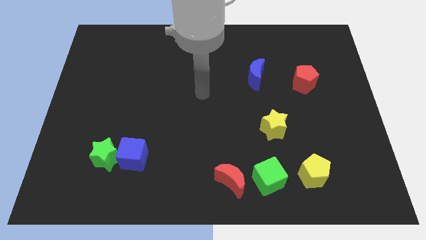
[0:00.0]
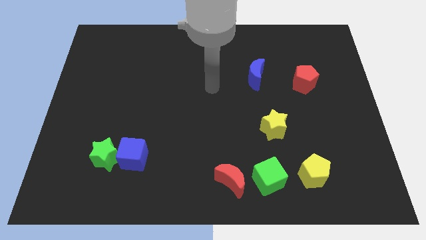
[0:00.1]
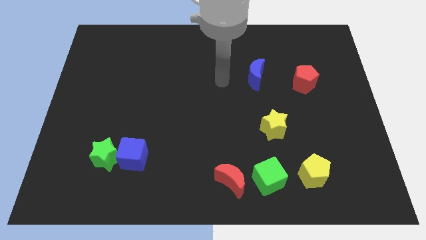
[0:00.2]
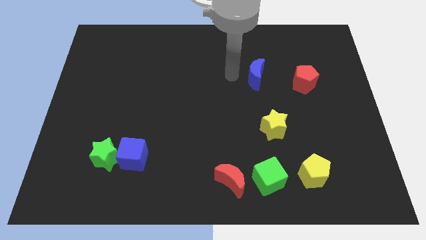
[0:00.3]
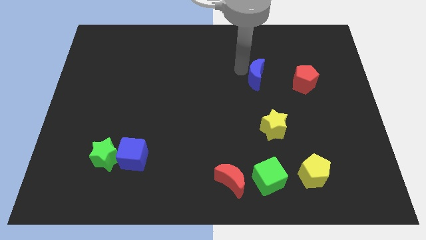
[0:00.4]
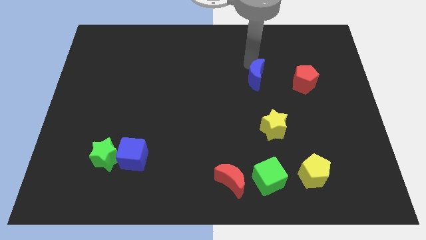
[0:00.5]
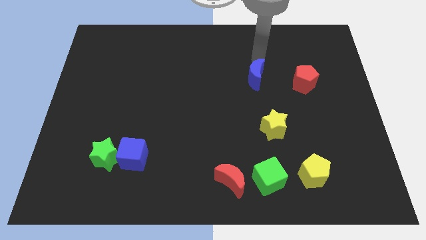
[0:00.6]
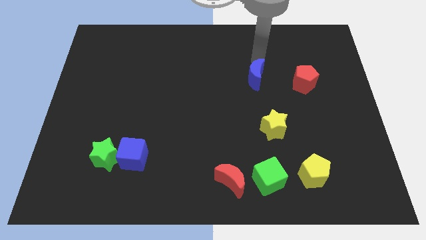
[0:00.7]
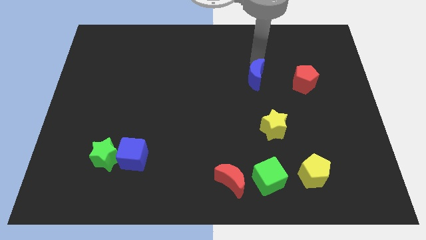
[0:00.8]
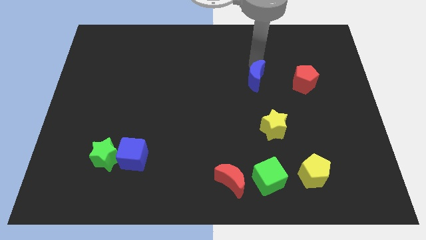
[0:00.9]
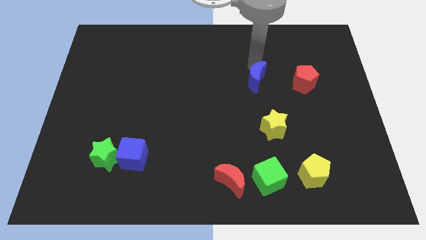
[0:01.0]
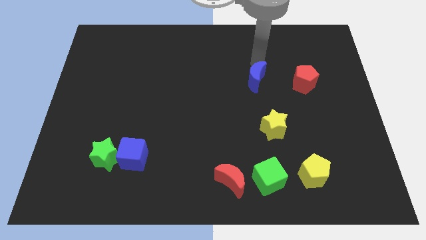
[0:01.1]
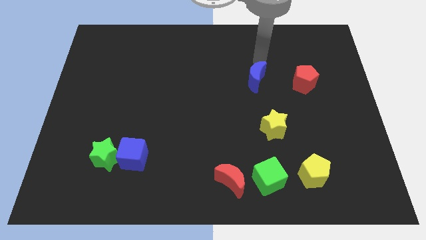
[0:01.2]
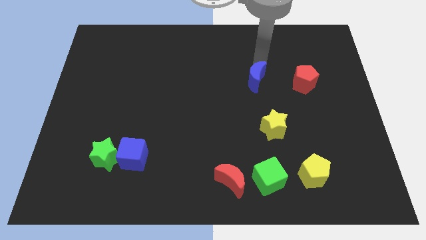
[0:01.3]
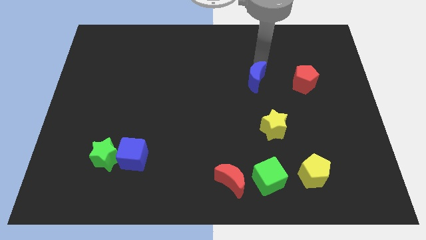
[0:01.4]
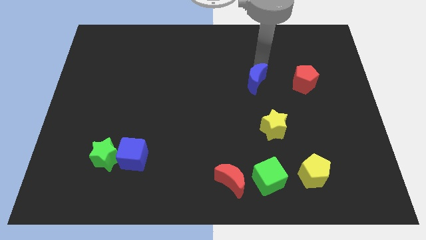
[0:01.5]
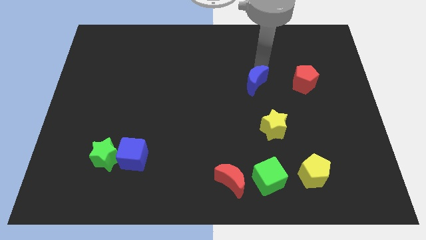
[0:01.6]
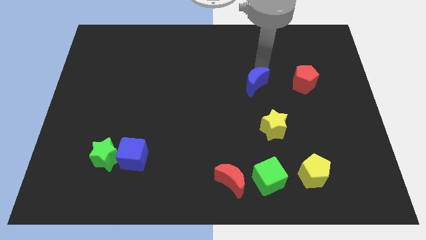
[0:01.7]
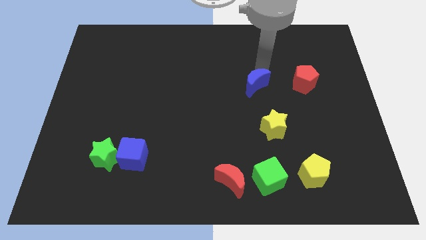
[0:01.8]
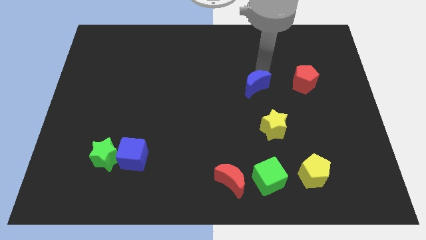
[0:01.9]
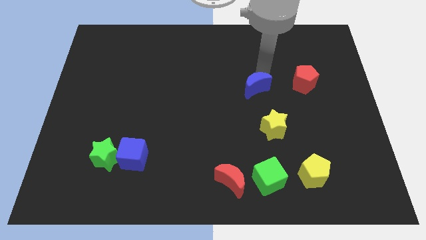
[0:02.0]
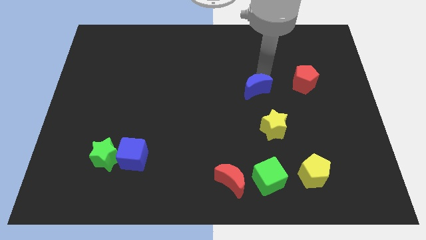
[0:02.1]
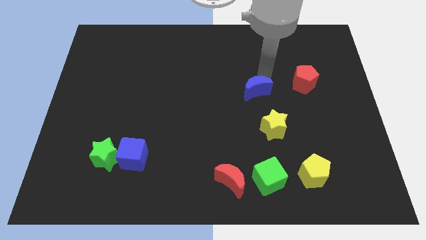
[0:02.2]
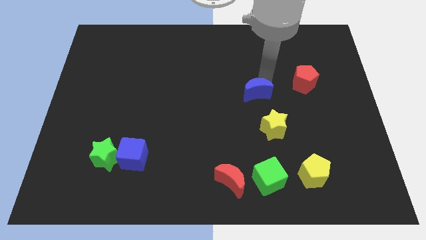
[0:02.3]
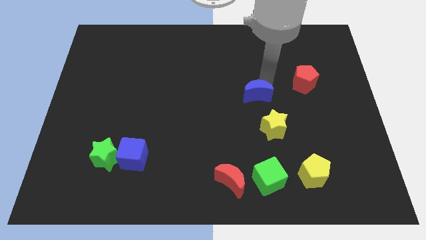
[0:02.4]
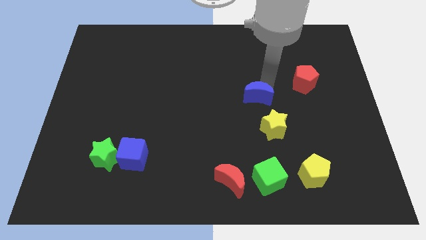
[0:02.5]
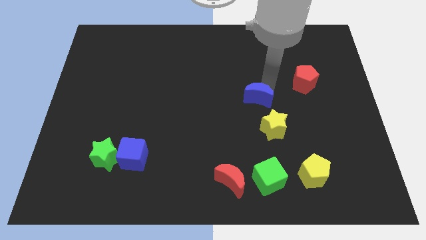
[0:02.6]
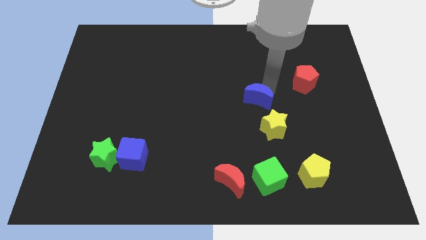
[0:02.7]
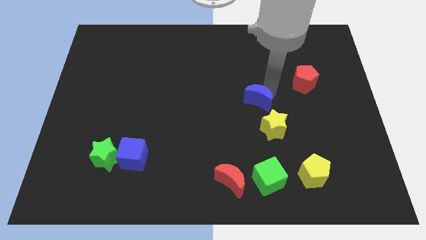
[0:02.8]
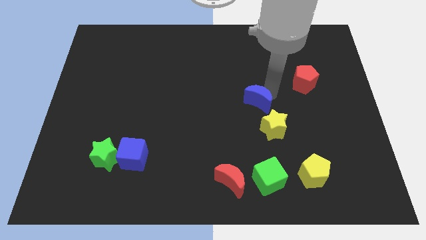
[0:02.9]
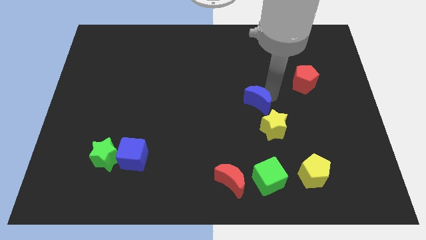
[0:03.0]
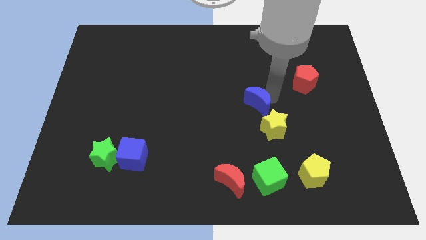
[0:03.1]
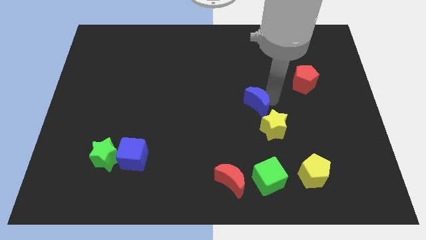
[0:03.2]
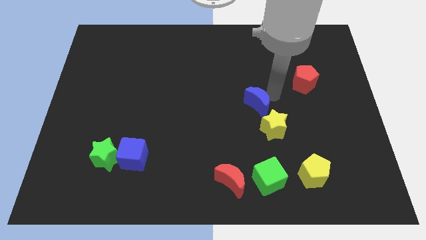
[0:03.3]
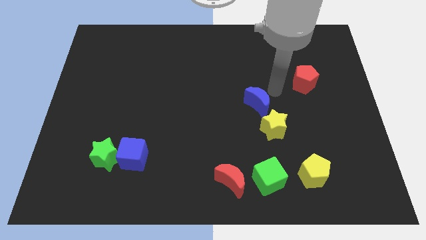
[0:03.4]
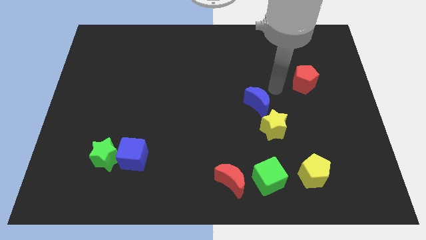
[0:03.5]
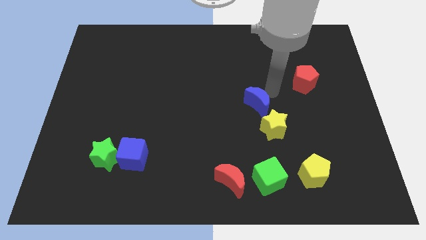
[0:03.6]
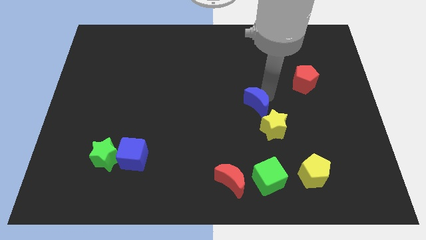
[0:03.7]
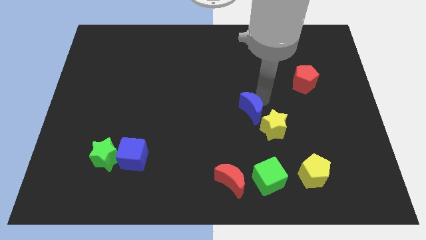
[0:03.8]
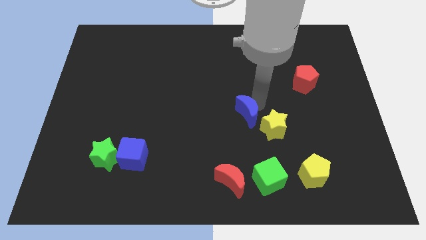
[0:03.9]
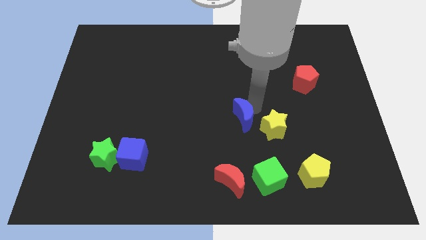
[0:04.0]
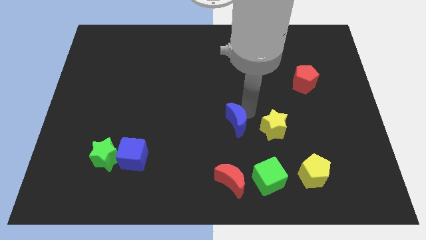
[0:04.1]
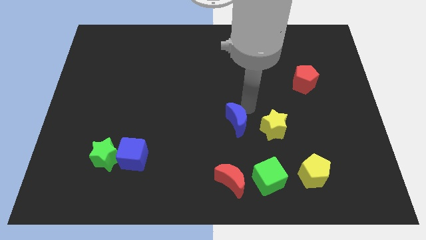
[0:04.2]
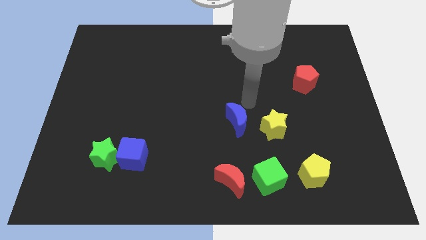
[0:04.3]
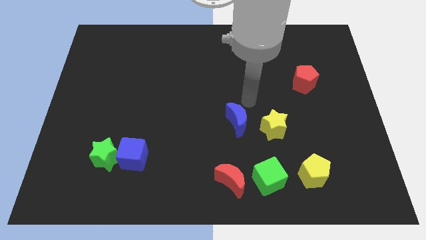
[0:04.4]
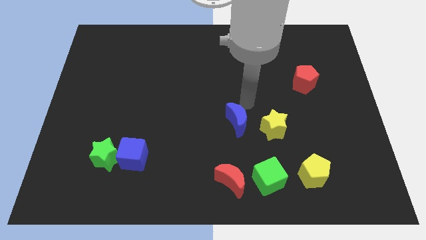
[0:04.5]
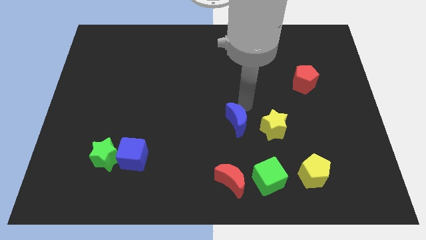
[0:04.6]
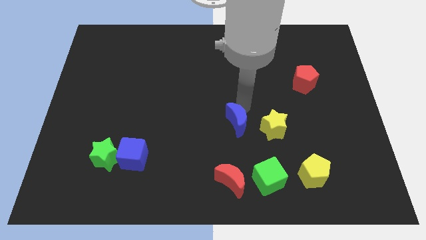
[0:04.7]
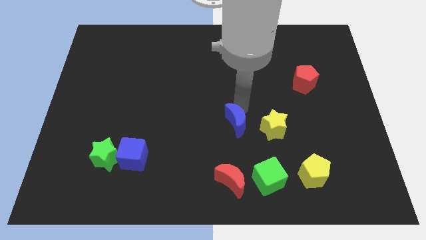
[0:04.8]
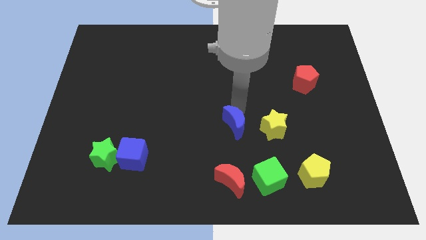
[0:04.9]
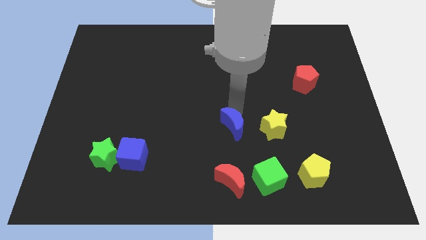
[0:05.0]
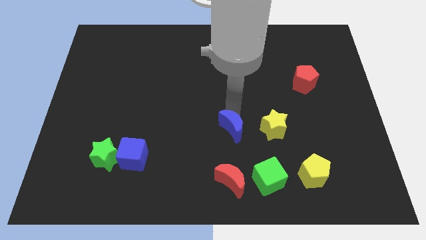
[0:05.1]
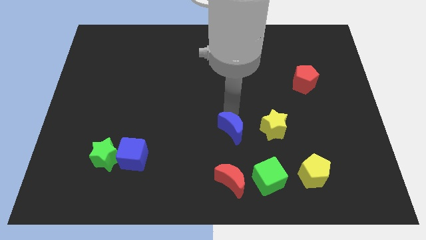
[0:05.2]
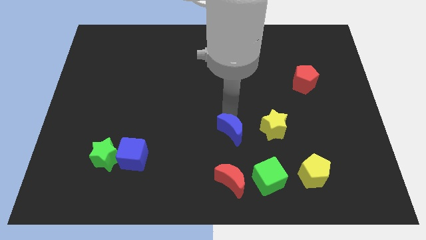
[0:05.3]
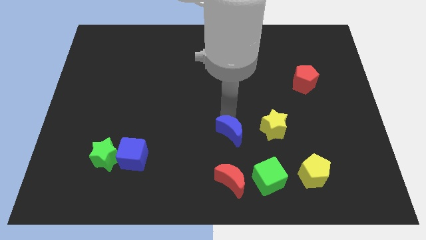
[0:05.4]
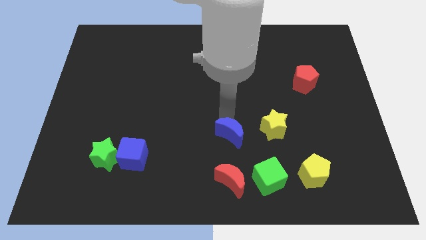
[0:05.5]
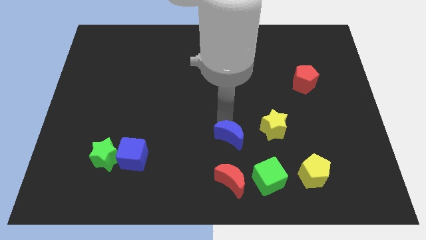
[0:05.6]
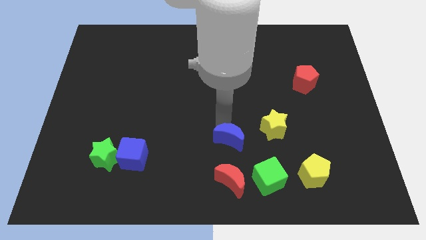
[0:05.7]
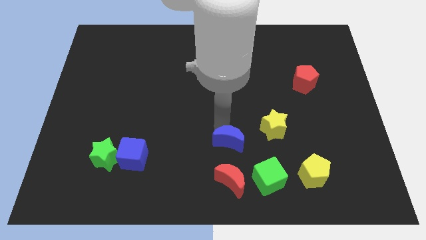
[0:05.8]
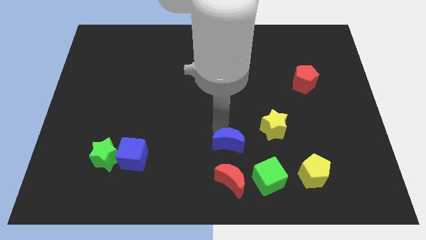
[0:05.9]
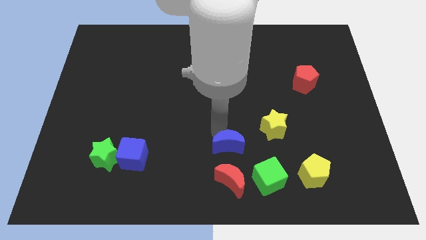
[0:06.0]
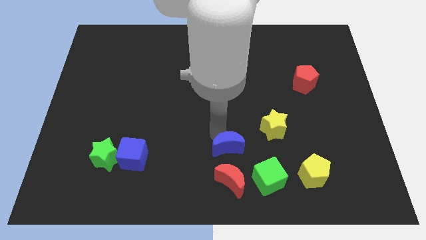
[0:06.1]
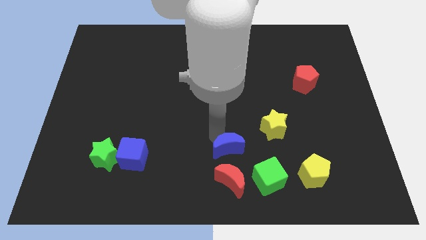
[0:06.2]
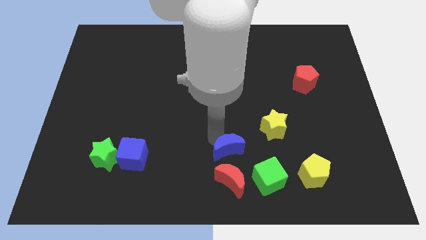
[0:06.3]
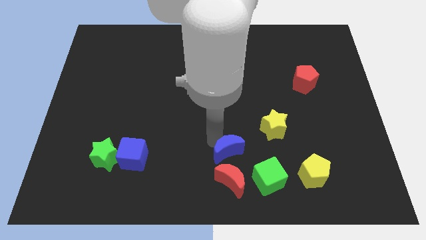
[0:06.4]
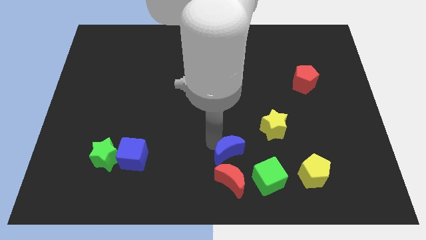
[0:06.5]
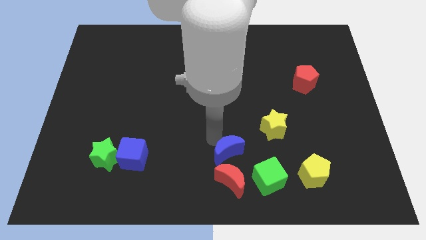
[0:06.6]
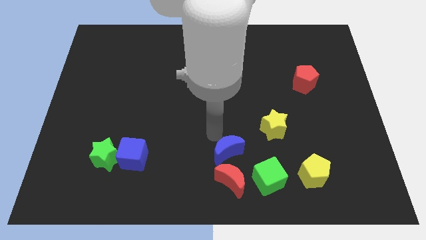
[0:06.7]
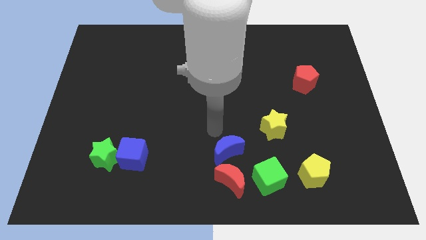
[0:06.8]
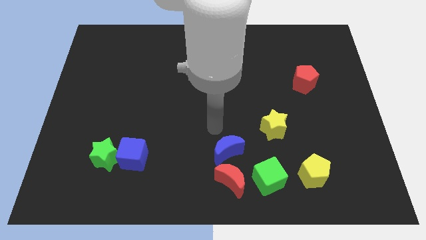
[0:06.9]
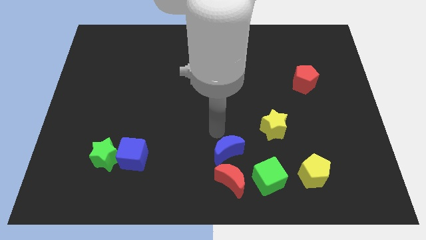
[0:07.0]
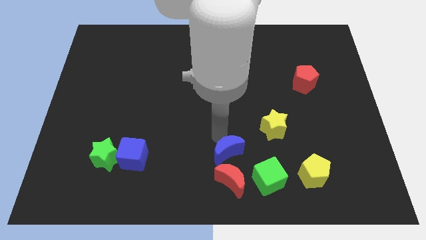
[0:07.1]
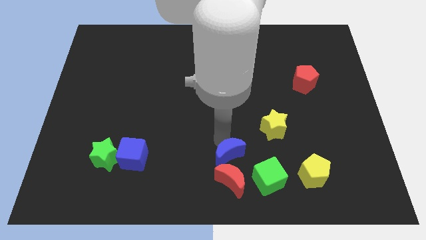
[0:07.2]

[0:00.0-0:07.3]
move the blue moon towards the red moon
